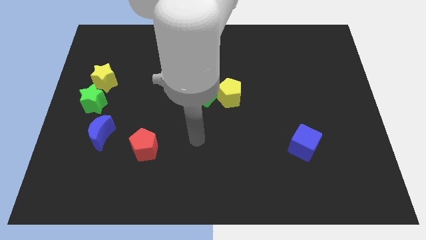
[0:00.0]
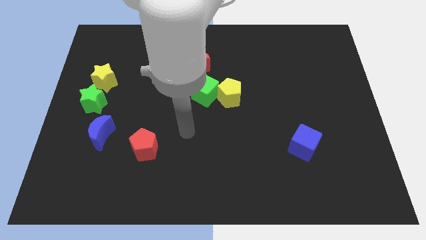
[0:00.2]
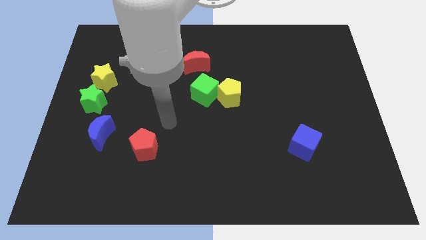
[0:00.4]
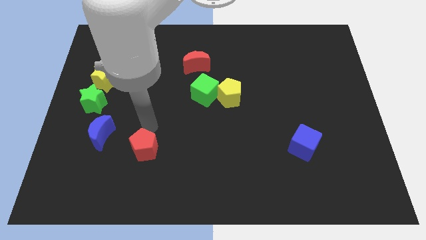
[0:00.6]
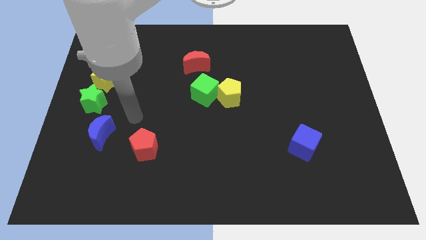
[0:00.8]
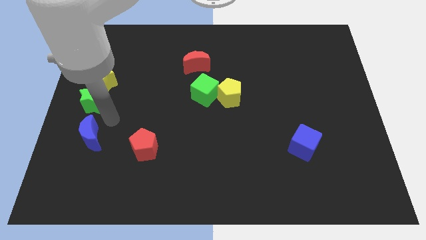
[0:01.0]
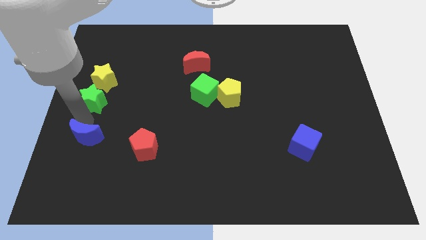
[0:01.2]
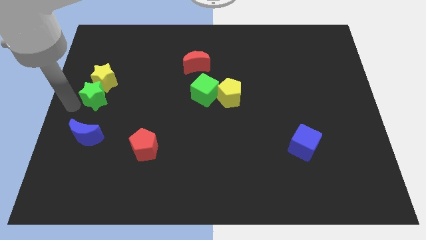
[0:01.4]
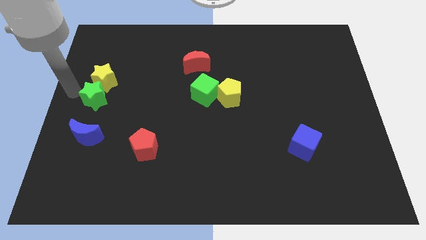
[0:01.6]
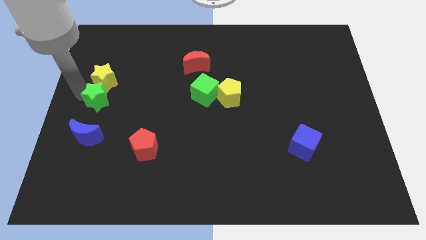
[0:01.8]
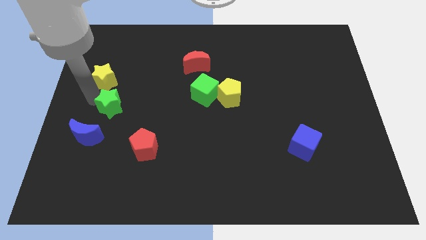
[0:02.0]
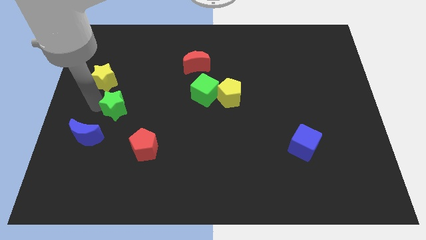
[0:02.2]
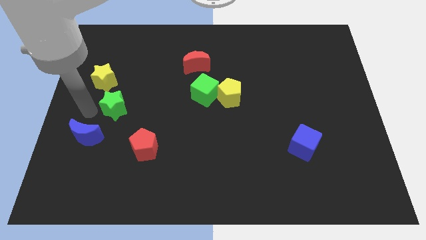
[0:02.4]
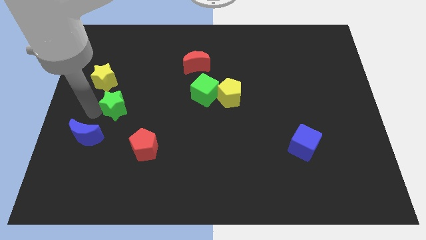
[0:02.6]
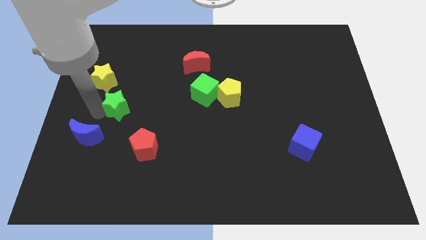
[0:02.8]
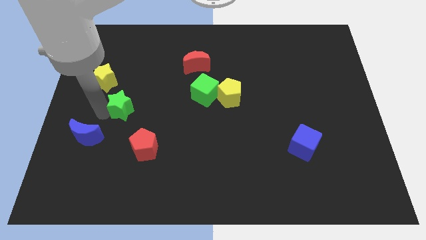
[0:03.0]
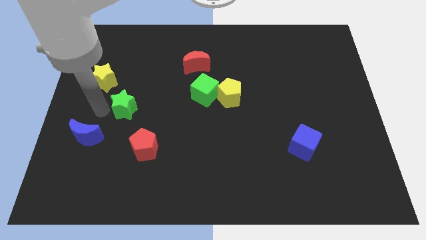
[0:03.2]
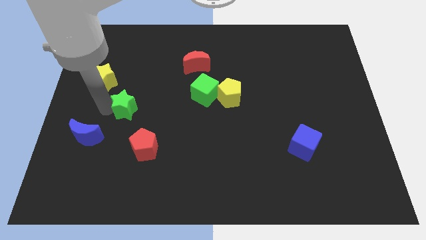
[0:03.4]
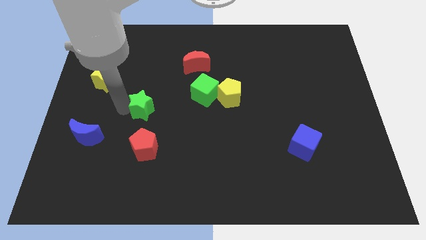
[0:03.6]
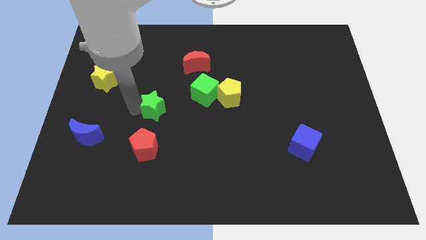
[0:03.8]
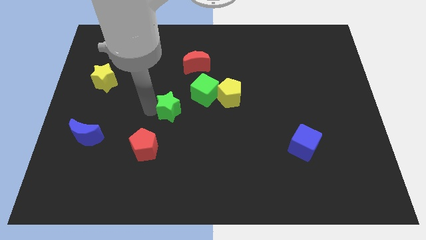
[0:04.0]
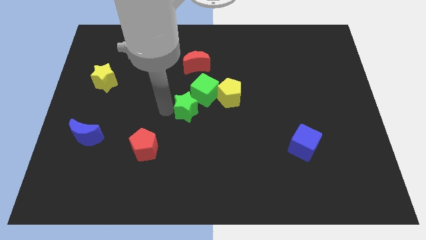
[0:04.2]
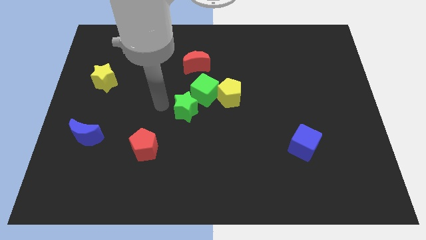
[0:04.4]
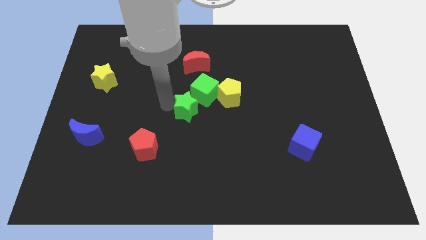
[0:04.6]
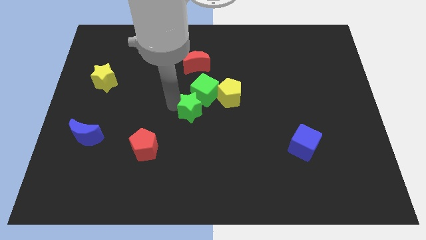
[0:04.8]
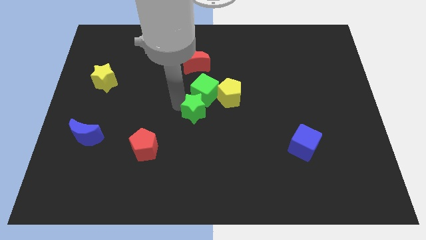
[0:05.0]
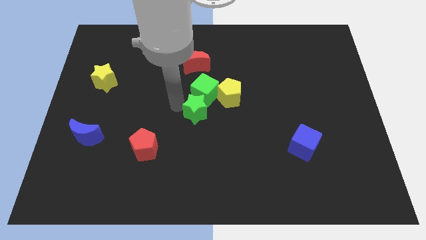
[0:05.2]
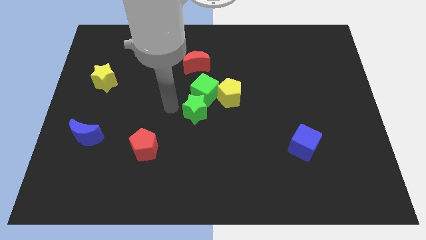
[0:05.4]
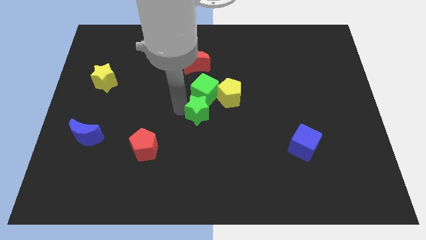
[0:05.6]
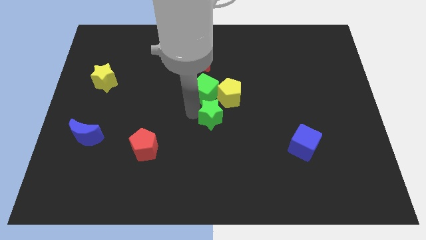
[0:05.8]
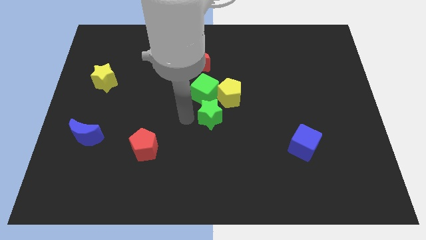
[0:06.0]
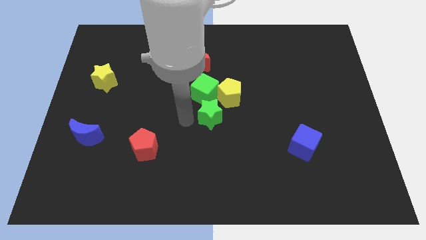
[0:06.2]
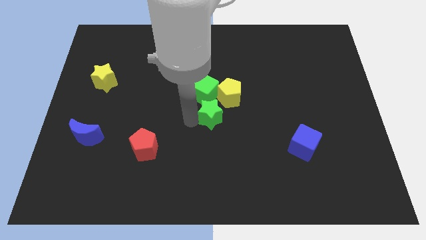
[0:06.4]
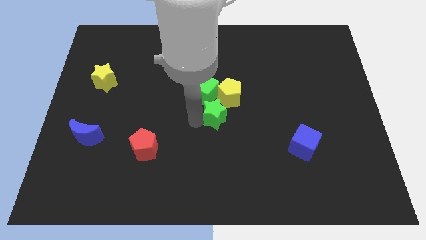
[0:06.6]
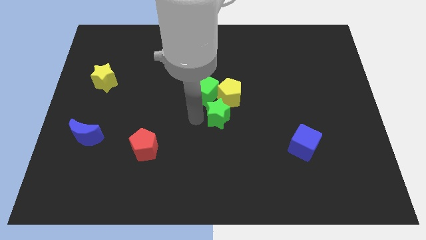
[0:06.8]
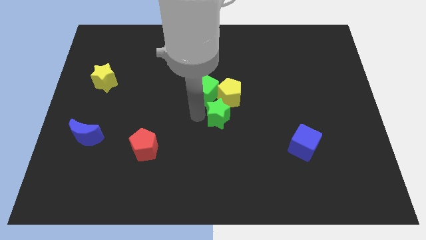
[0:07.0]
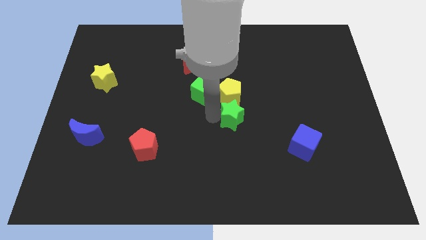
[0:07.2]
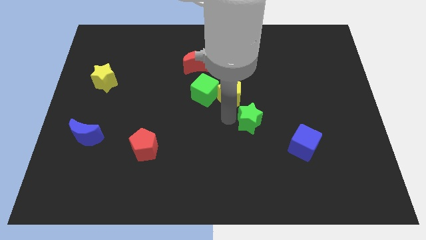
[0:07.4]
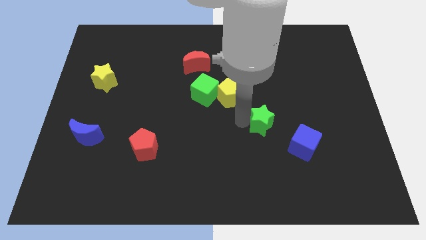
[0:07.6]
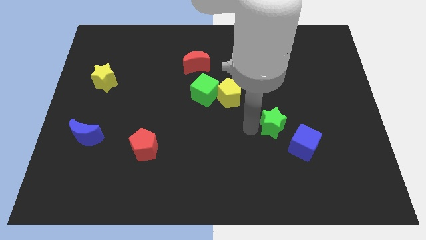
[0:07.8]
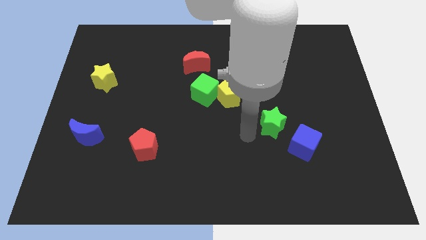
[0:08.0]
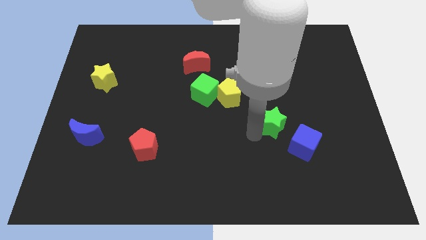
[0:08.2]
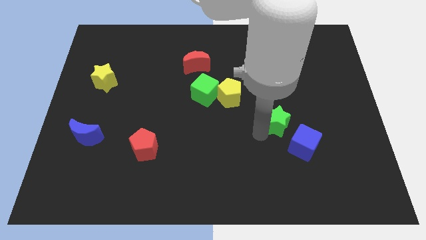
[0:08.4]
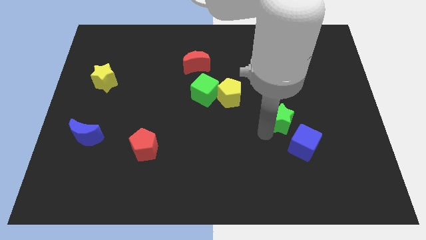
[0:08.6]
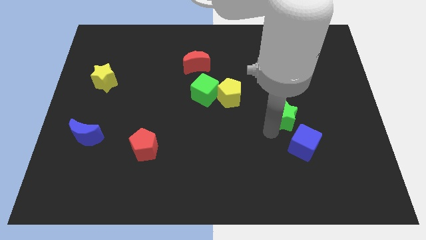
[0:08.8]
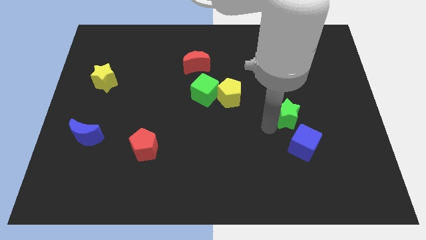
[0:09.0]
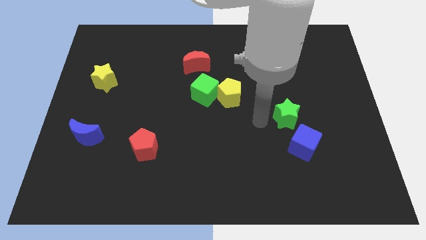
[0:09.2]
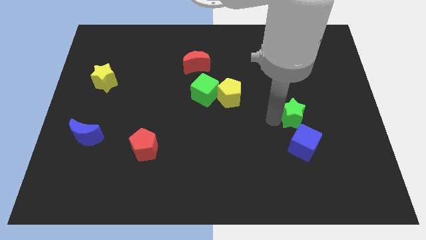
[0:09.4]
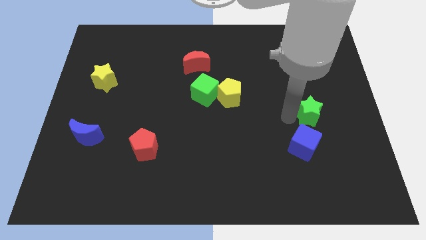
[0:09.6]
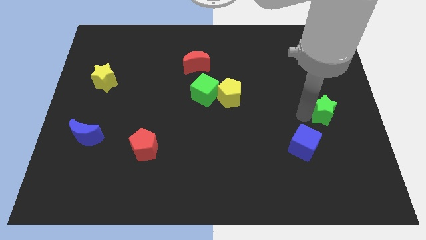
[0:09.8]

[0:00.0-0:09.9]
push the green star to the center right

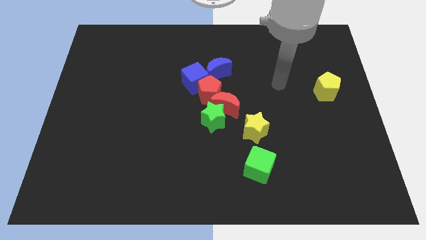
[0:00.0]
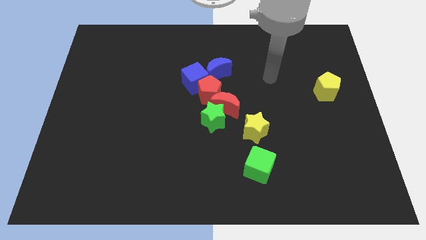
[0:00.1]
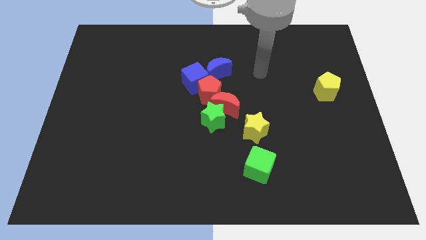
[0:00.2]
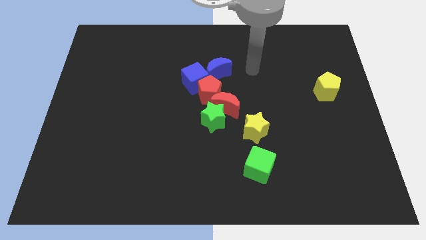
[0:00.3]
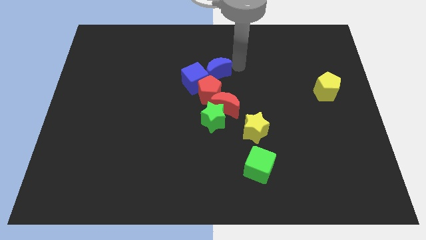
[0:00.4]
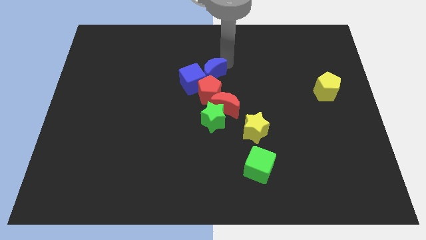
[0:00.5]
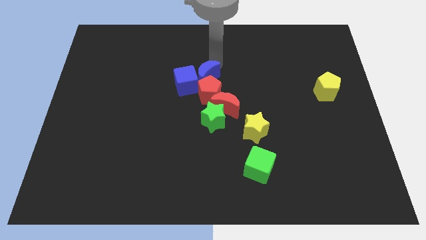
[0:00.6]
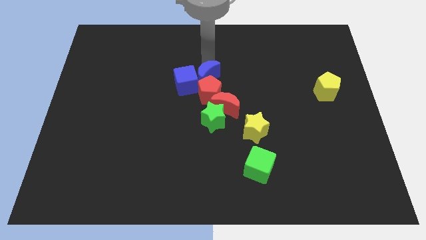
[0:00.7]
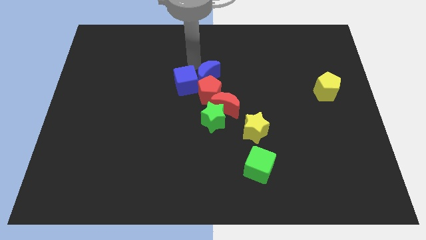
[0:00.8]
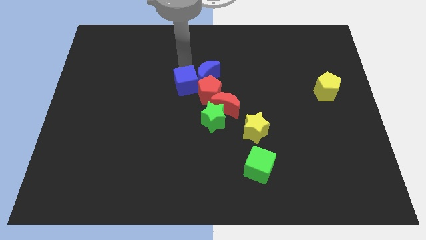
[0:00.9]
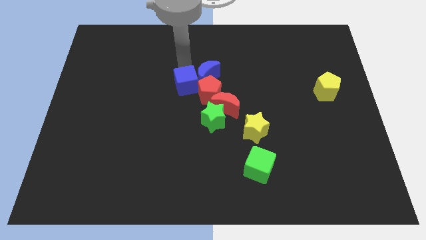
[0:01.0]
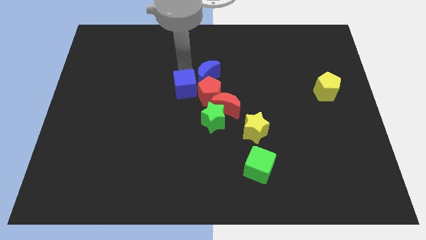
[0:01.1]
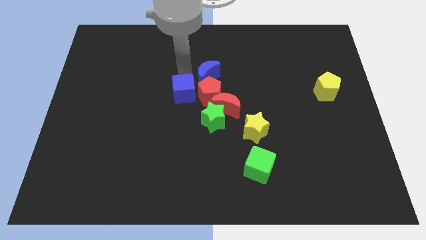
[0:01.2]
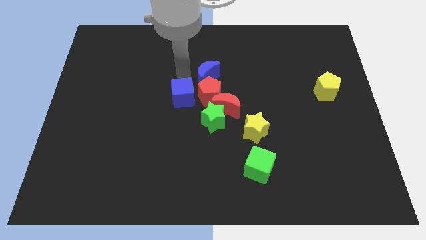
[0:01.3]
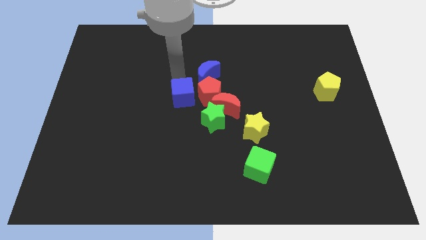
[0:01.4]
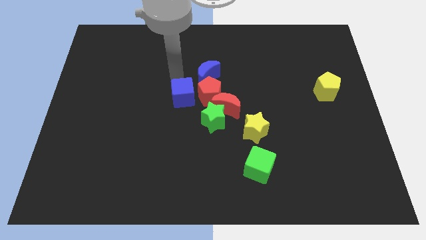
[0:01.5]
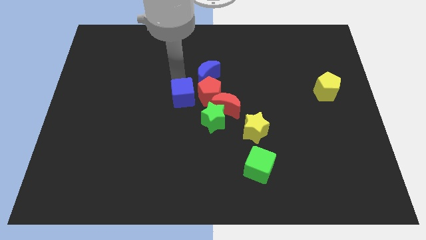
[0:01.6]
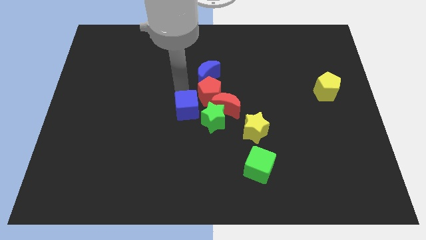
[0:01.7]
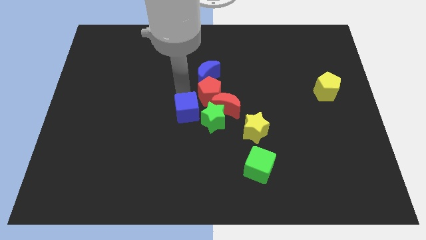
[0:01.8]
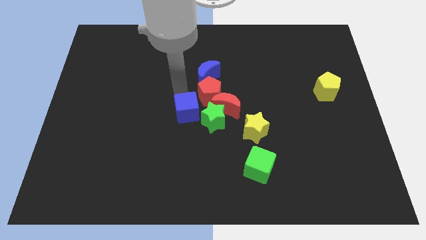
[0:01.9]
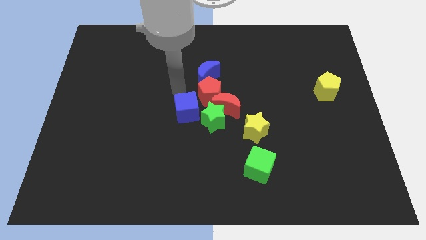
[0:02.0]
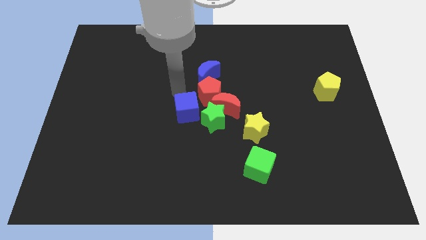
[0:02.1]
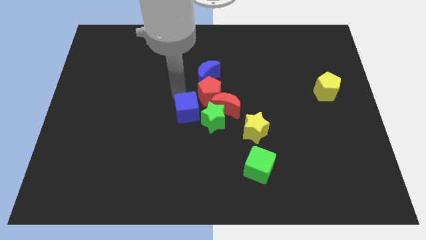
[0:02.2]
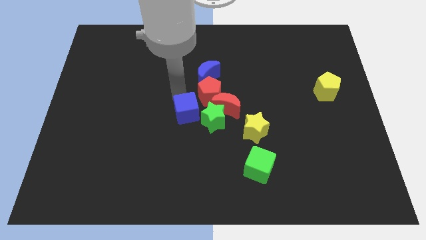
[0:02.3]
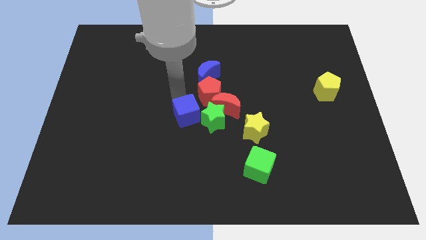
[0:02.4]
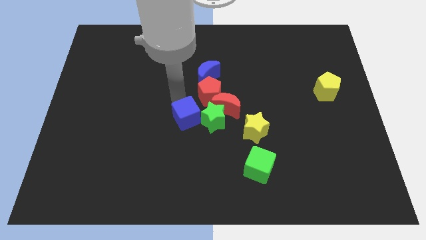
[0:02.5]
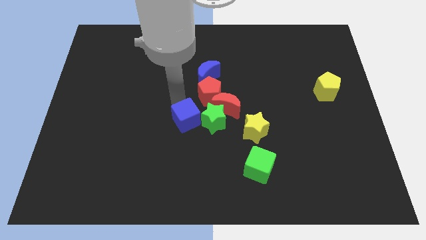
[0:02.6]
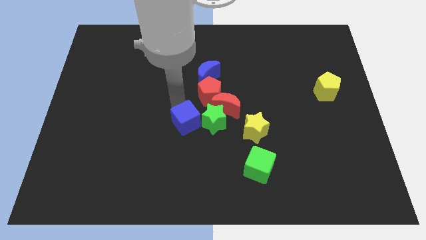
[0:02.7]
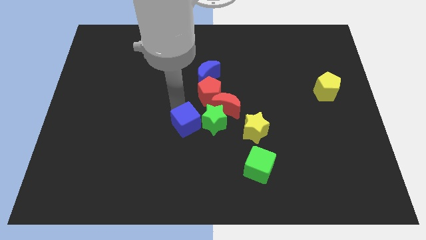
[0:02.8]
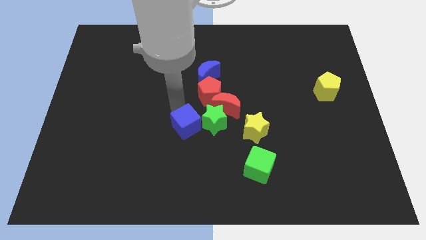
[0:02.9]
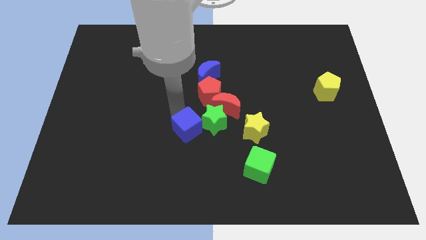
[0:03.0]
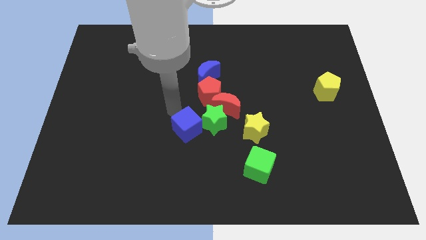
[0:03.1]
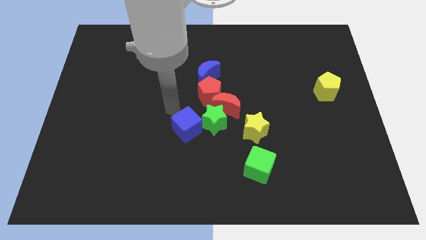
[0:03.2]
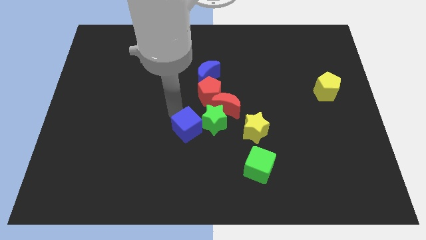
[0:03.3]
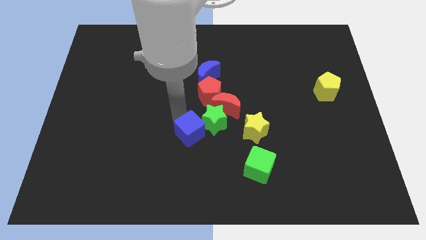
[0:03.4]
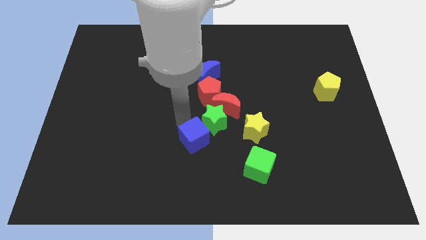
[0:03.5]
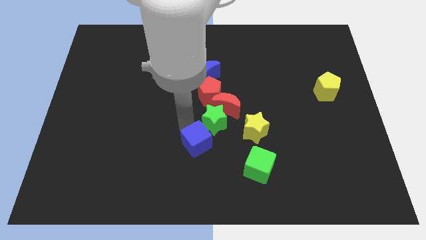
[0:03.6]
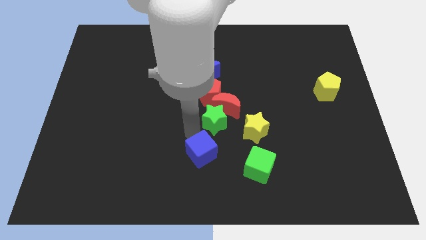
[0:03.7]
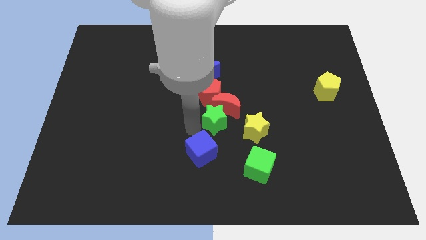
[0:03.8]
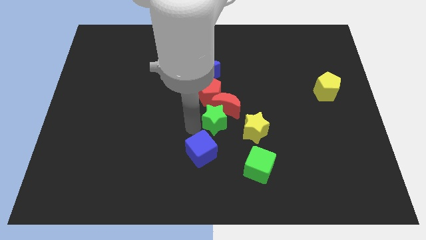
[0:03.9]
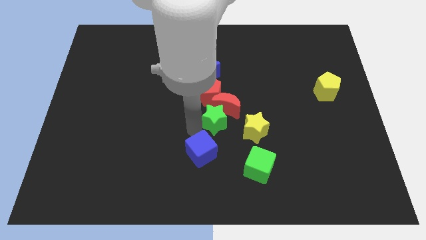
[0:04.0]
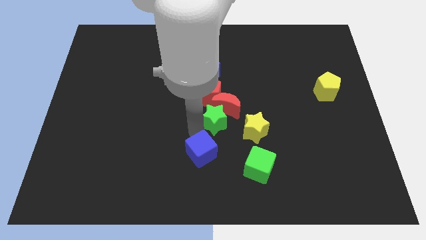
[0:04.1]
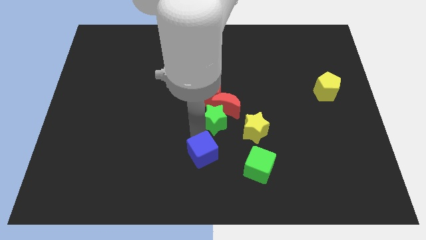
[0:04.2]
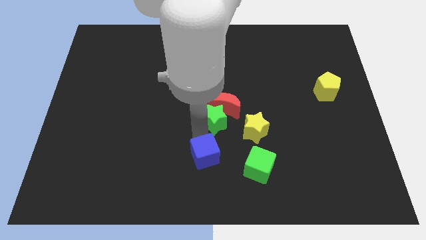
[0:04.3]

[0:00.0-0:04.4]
move the blue cube to the bottom
